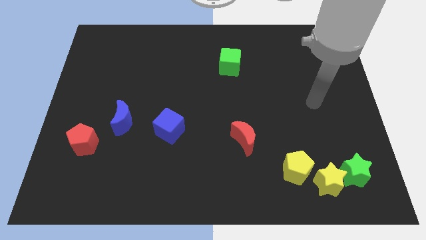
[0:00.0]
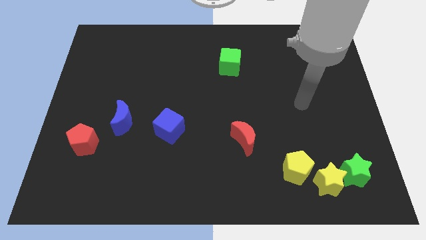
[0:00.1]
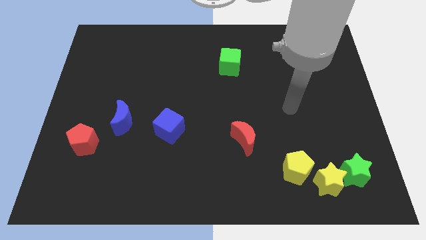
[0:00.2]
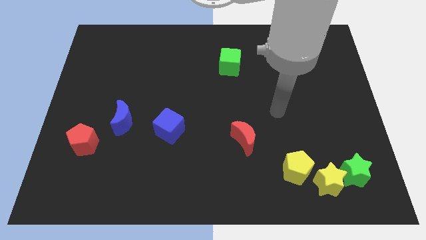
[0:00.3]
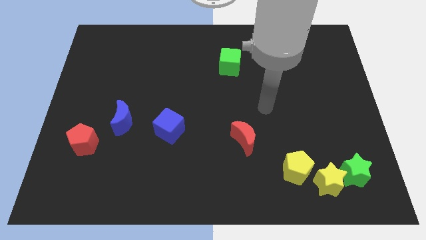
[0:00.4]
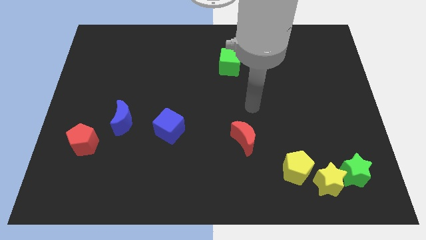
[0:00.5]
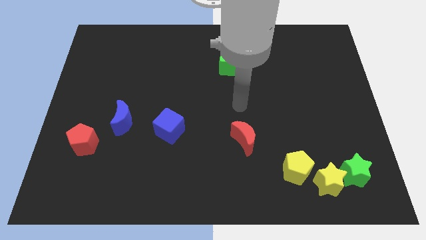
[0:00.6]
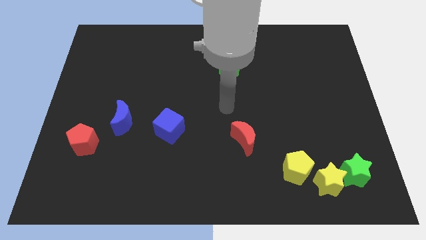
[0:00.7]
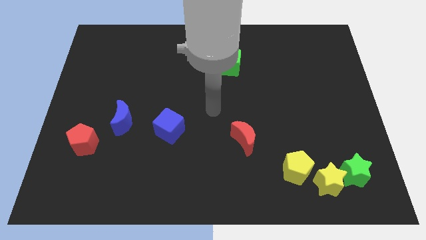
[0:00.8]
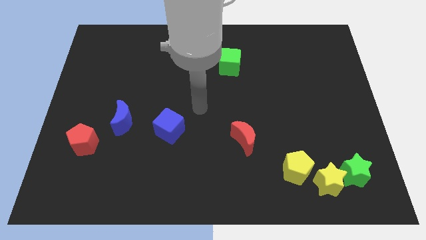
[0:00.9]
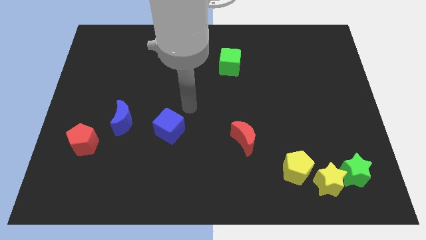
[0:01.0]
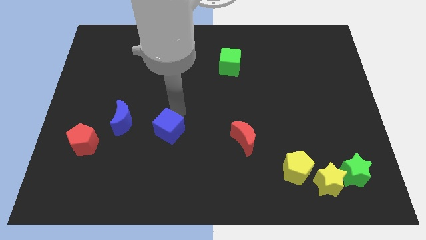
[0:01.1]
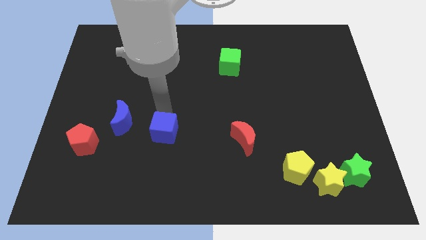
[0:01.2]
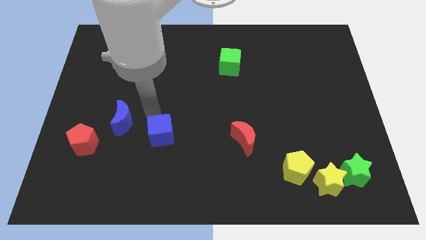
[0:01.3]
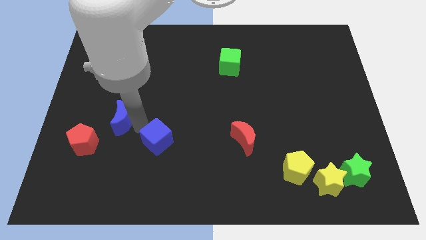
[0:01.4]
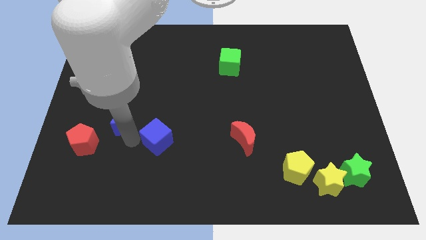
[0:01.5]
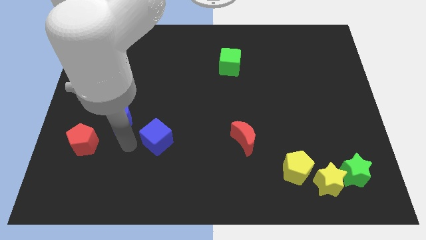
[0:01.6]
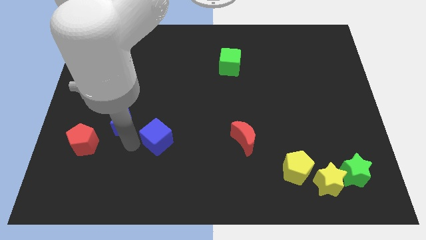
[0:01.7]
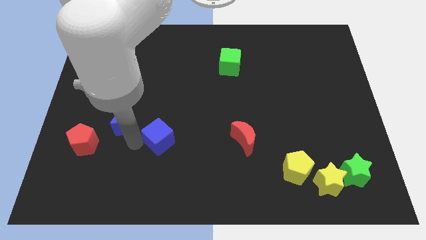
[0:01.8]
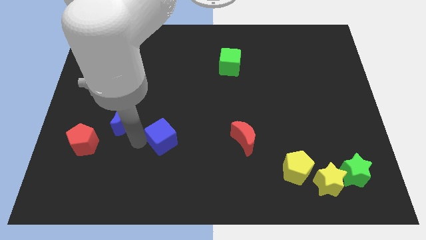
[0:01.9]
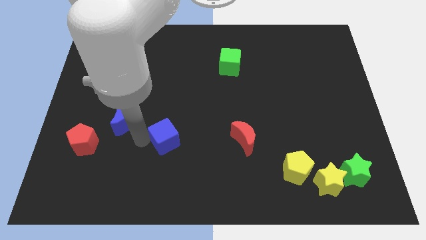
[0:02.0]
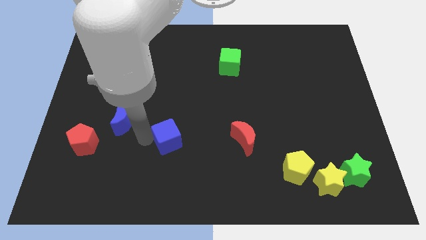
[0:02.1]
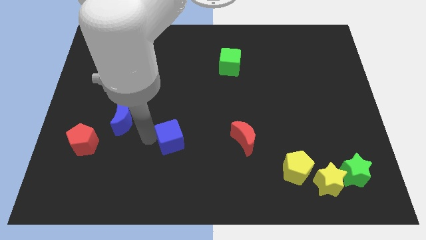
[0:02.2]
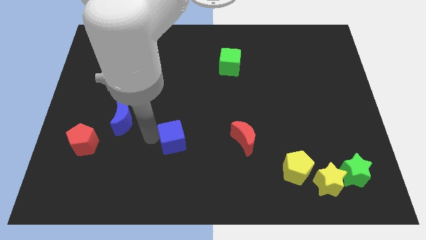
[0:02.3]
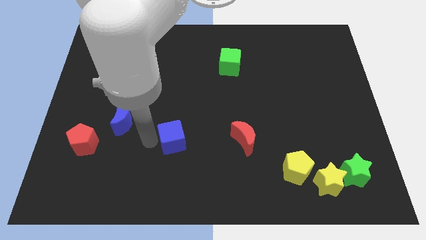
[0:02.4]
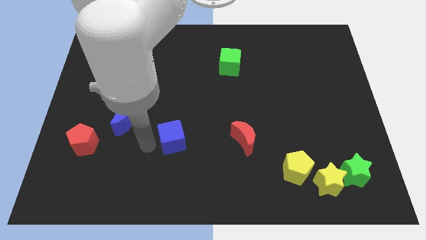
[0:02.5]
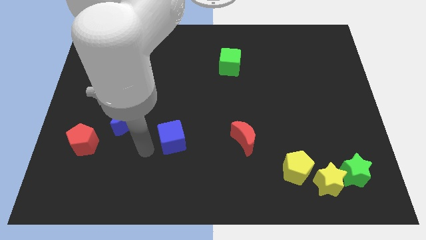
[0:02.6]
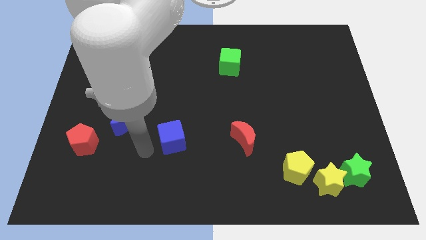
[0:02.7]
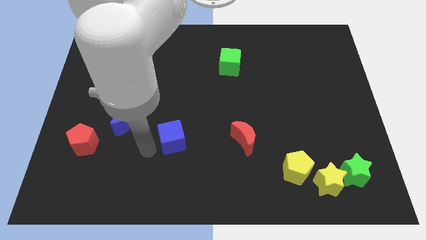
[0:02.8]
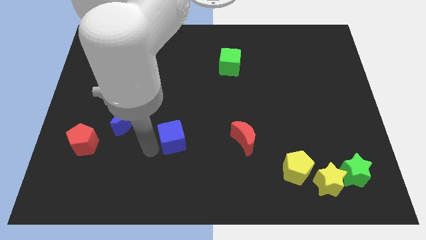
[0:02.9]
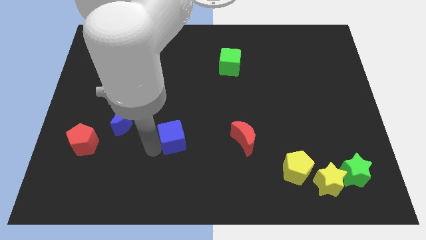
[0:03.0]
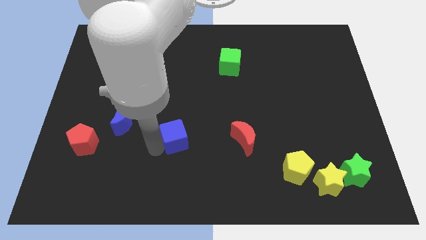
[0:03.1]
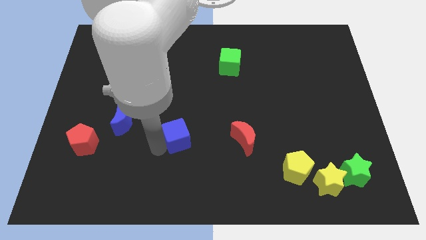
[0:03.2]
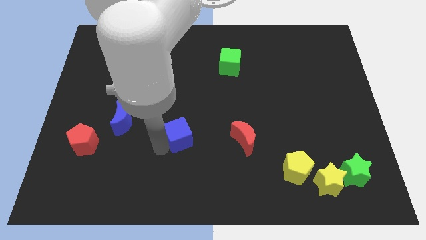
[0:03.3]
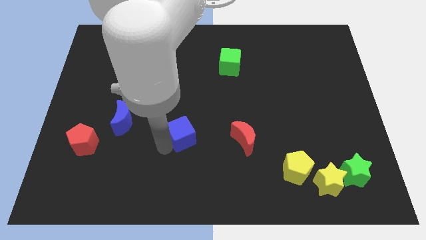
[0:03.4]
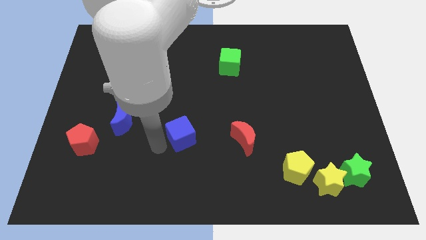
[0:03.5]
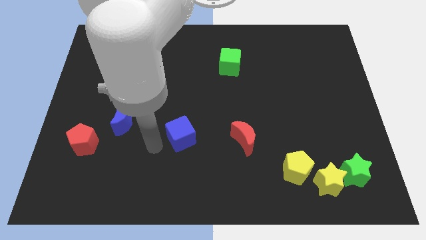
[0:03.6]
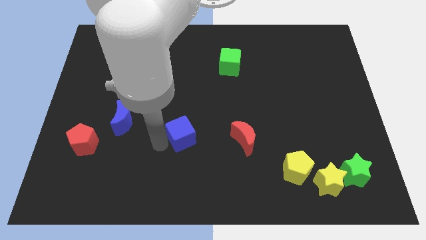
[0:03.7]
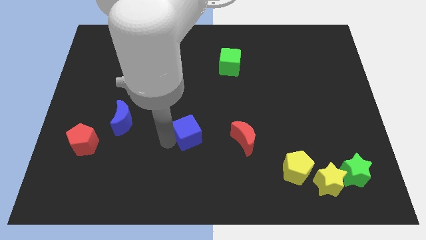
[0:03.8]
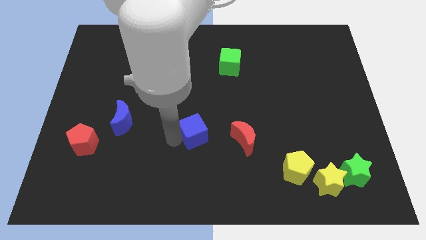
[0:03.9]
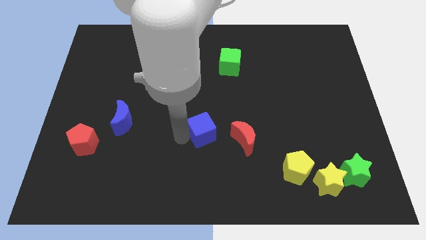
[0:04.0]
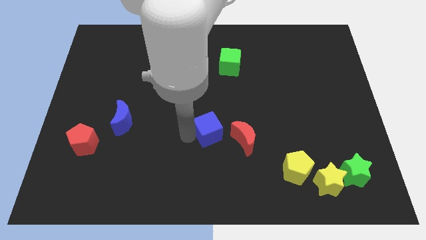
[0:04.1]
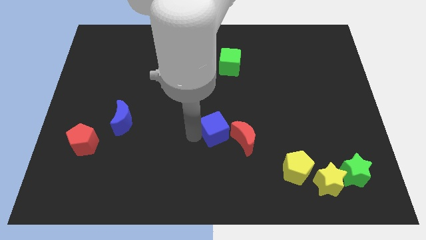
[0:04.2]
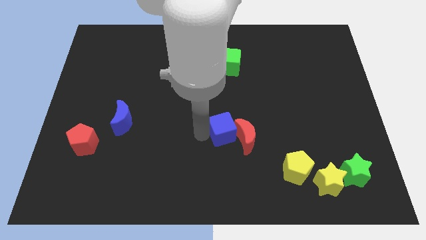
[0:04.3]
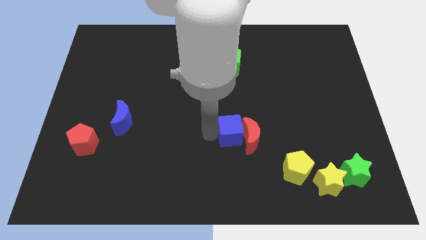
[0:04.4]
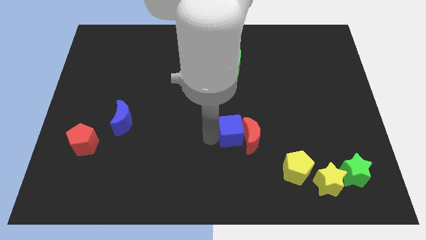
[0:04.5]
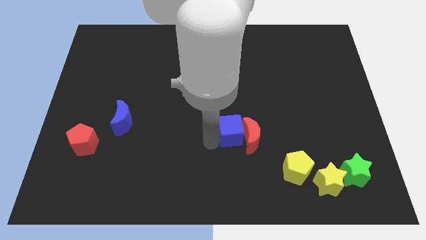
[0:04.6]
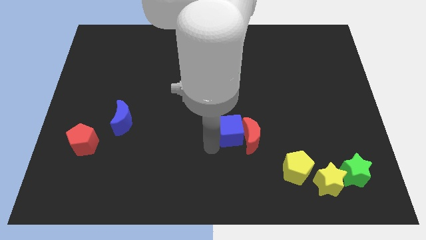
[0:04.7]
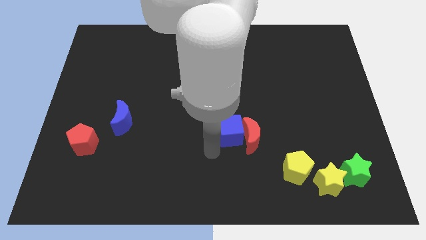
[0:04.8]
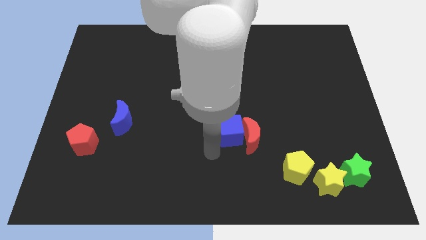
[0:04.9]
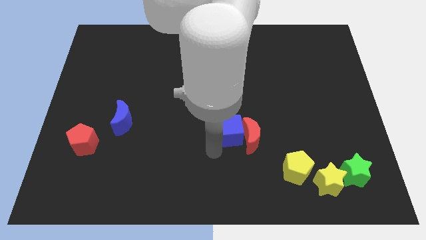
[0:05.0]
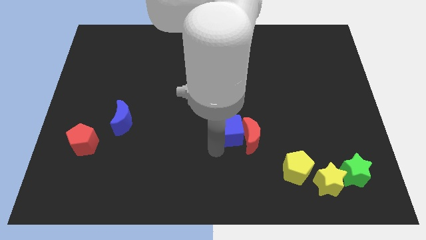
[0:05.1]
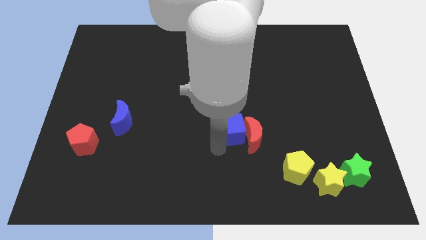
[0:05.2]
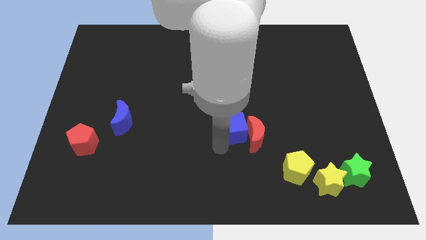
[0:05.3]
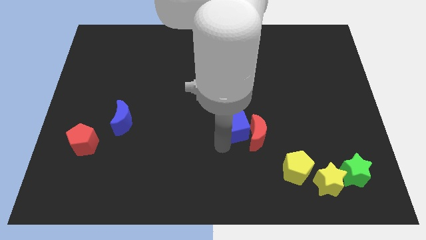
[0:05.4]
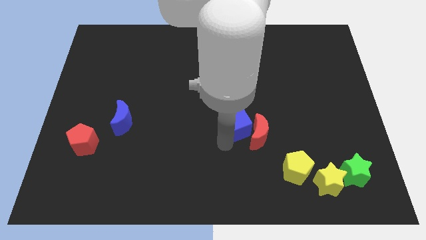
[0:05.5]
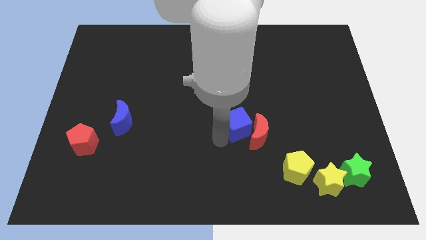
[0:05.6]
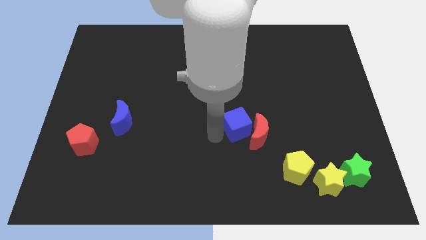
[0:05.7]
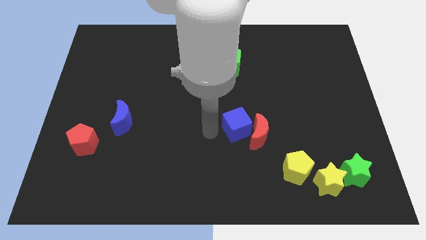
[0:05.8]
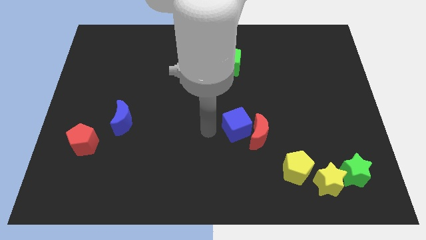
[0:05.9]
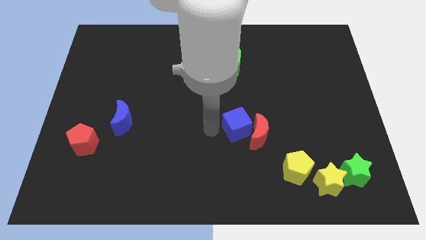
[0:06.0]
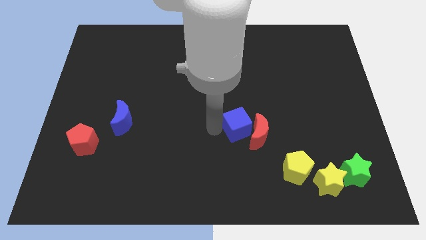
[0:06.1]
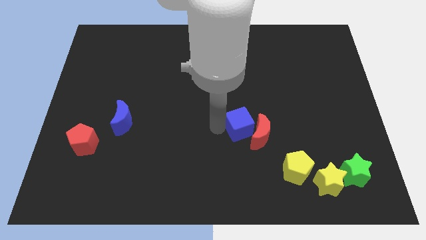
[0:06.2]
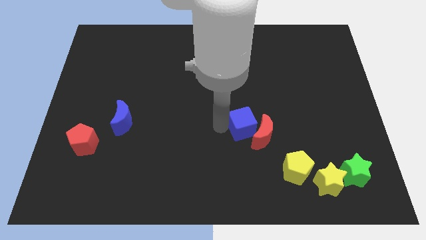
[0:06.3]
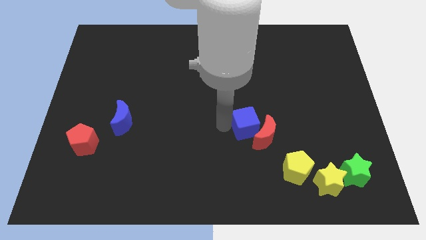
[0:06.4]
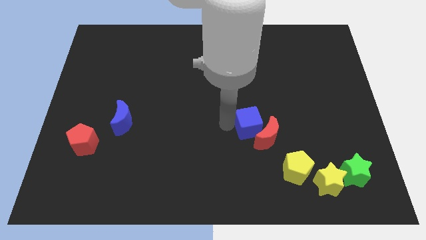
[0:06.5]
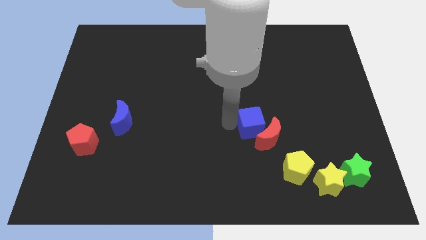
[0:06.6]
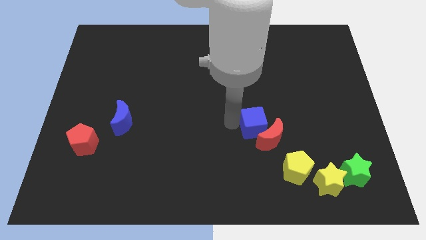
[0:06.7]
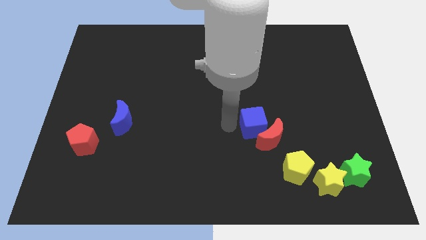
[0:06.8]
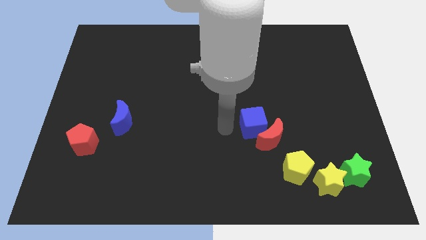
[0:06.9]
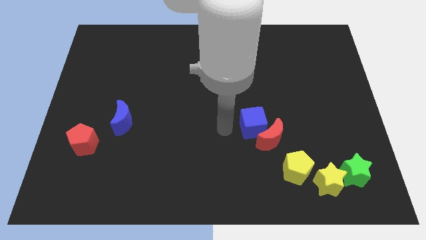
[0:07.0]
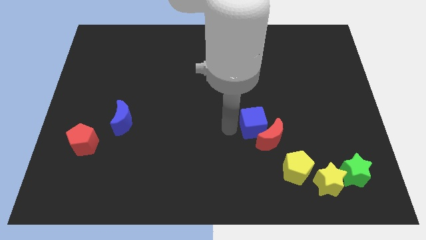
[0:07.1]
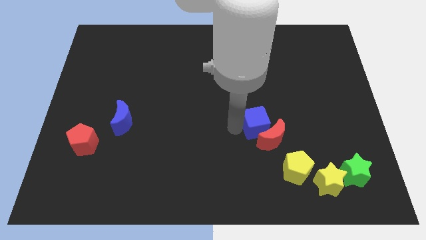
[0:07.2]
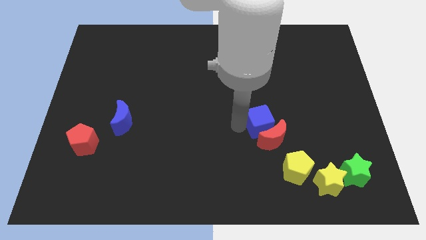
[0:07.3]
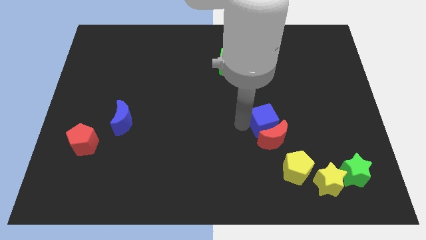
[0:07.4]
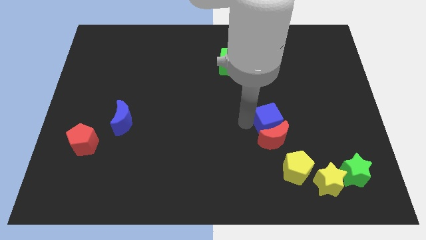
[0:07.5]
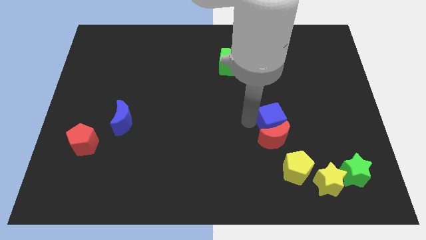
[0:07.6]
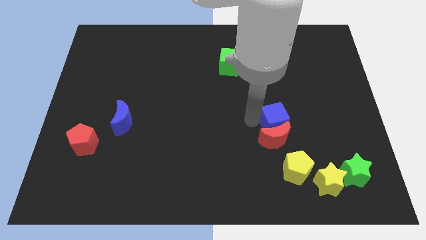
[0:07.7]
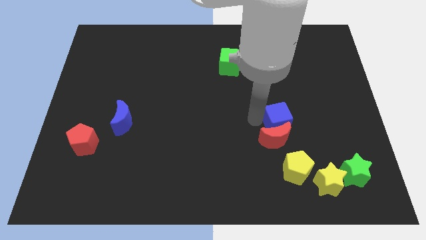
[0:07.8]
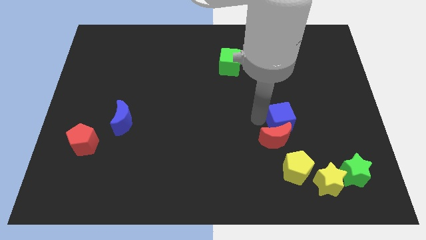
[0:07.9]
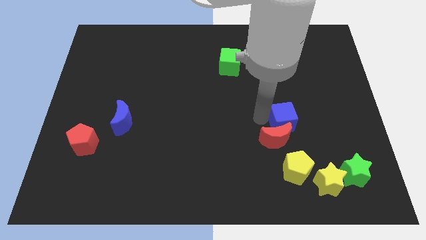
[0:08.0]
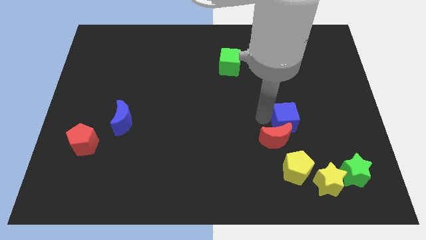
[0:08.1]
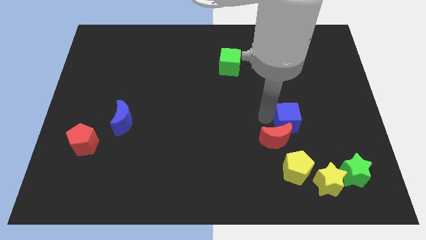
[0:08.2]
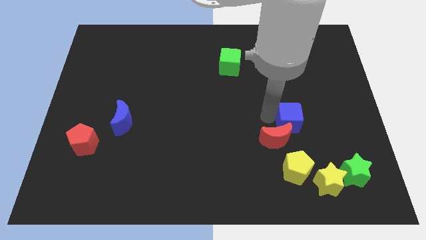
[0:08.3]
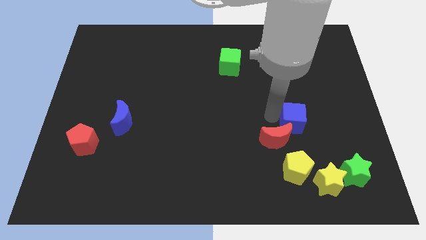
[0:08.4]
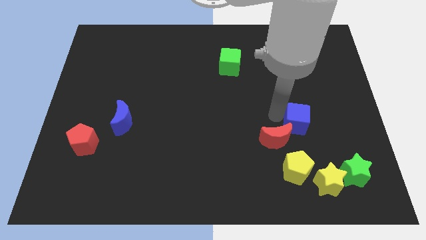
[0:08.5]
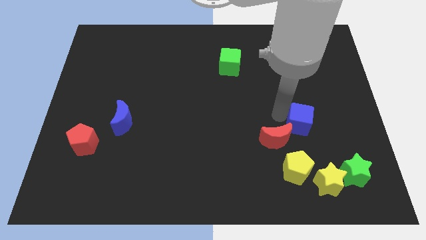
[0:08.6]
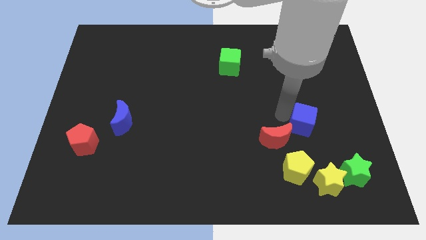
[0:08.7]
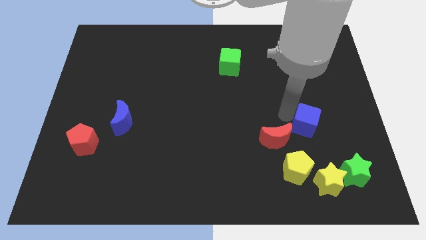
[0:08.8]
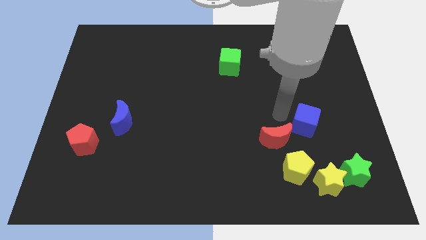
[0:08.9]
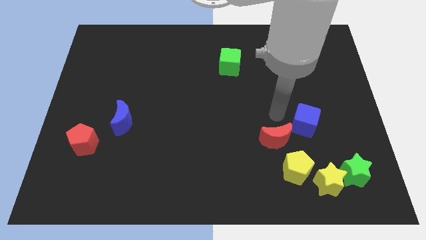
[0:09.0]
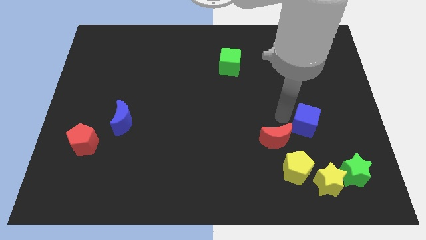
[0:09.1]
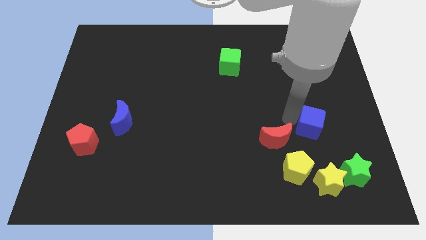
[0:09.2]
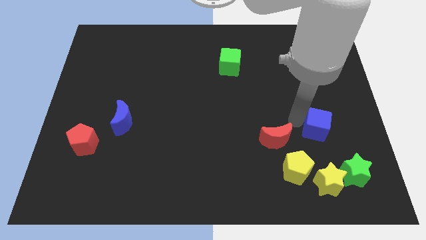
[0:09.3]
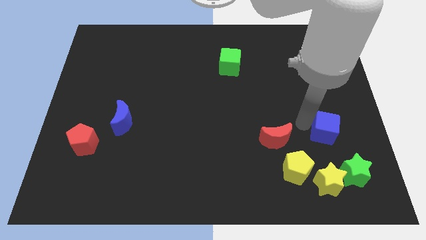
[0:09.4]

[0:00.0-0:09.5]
push the blue cube to the top of the green star
